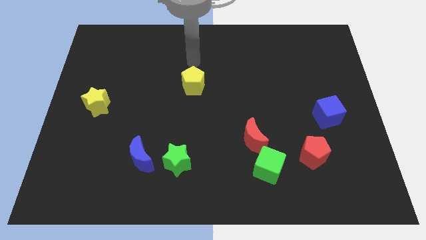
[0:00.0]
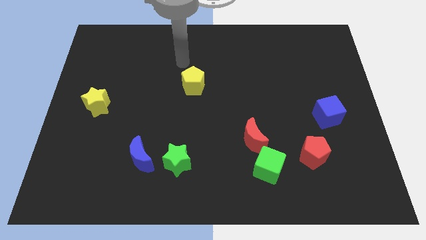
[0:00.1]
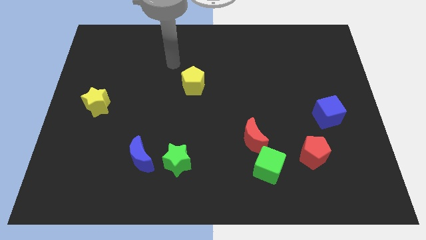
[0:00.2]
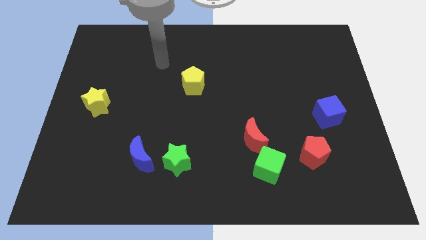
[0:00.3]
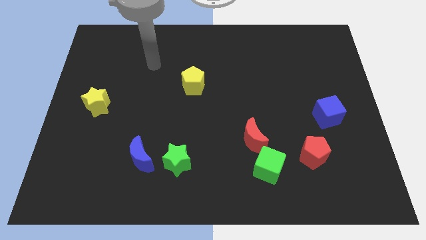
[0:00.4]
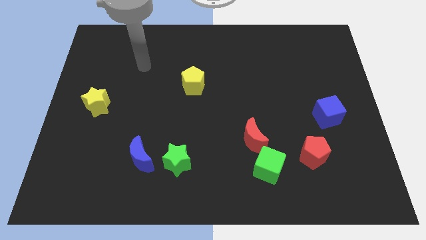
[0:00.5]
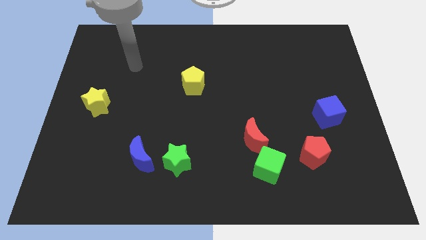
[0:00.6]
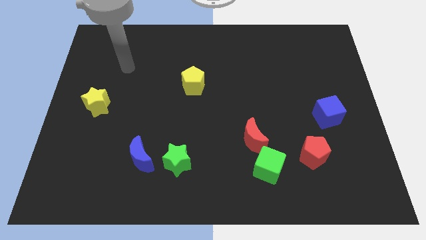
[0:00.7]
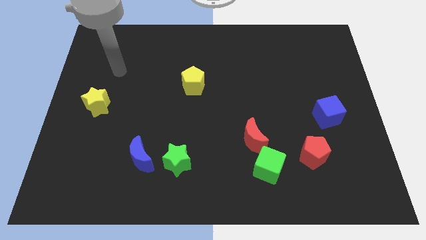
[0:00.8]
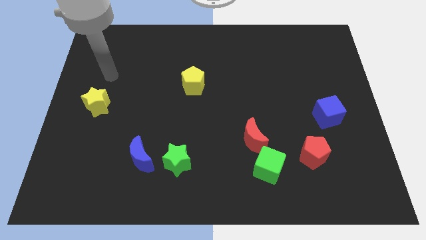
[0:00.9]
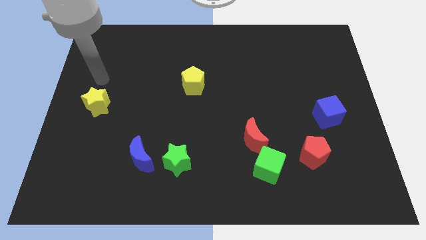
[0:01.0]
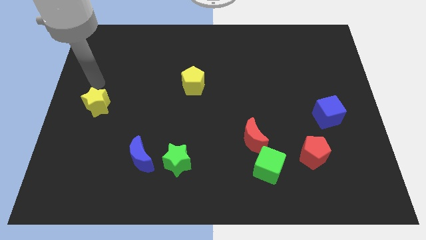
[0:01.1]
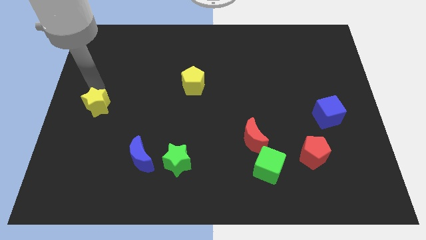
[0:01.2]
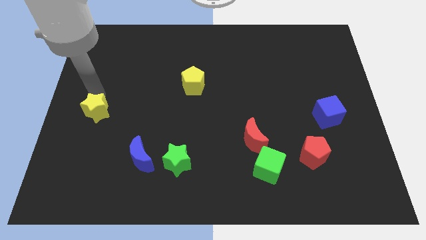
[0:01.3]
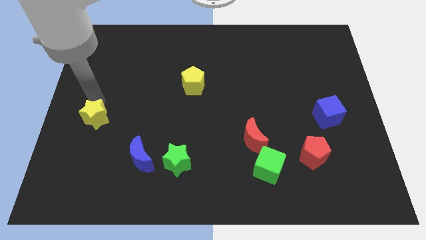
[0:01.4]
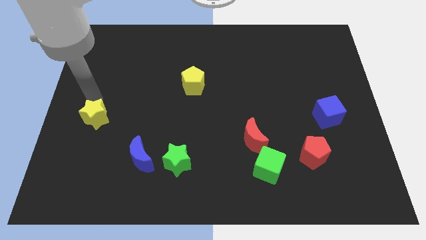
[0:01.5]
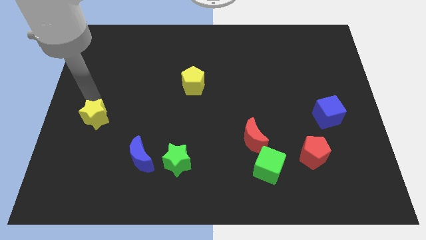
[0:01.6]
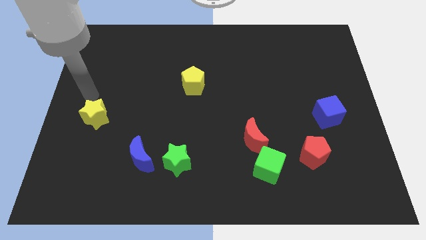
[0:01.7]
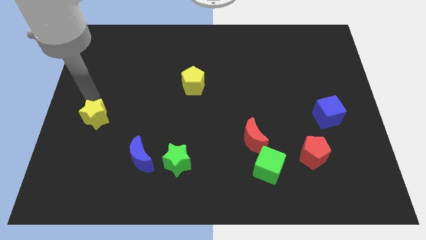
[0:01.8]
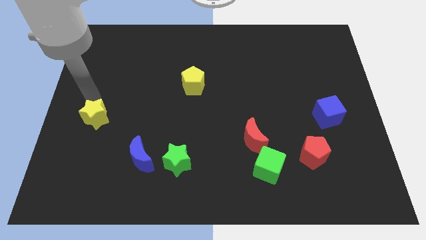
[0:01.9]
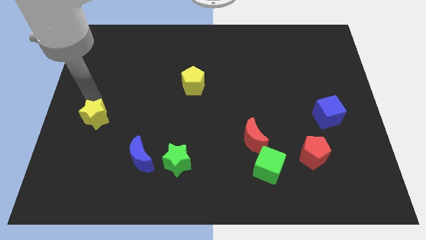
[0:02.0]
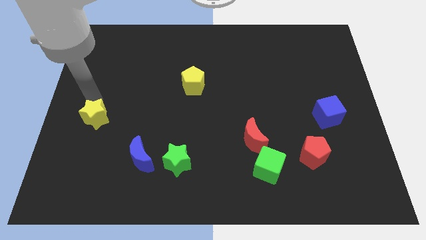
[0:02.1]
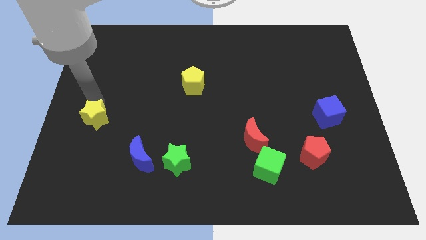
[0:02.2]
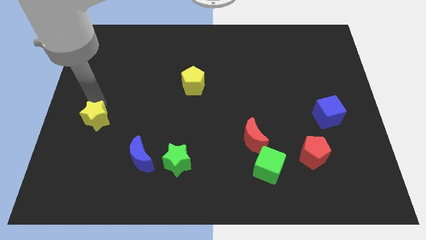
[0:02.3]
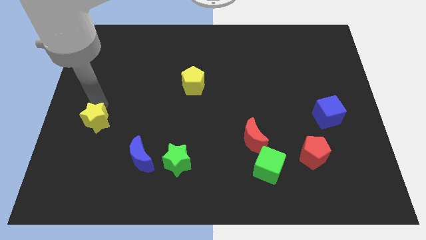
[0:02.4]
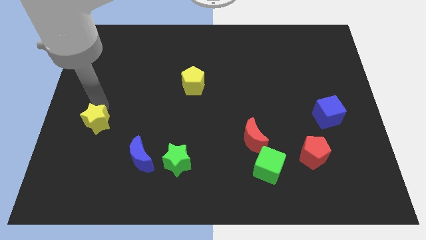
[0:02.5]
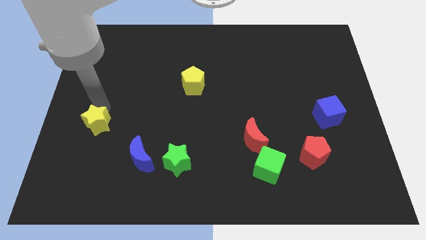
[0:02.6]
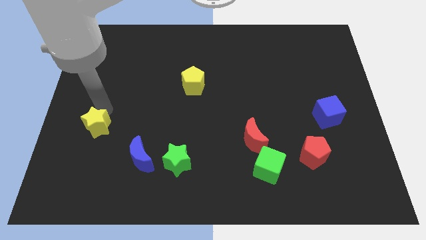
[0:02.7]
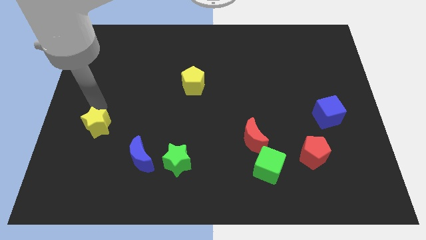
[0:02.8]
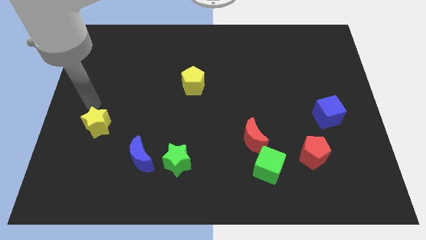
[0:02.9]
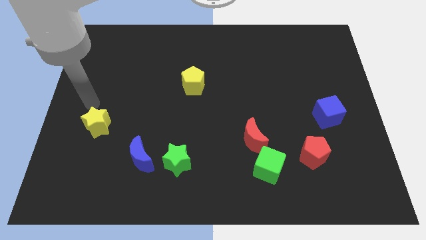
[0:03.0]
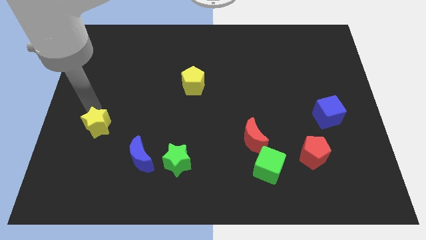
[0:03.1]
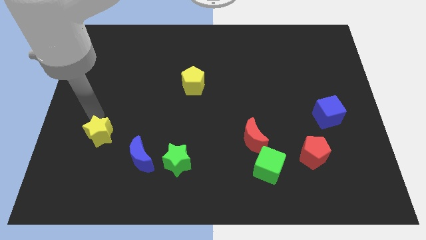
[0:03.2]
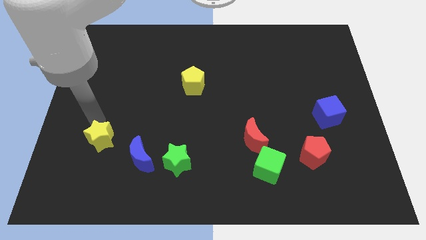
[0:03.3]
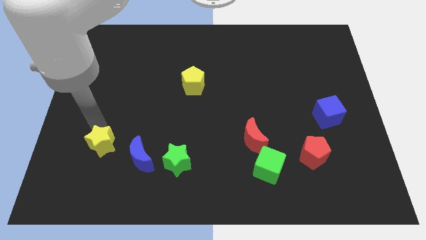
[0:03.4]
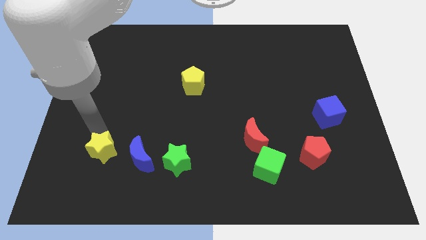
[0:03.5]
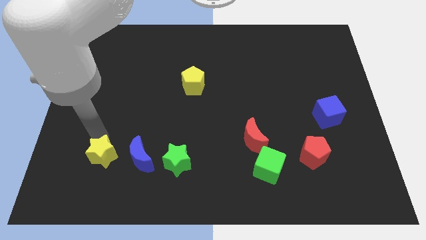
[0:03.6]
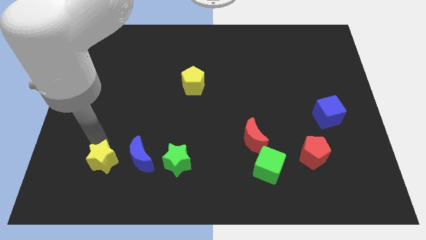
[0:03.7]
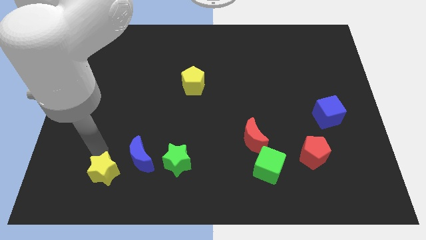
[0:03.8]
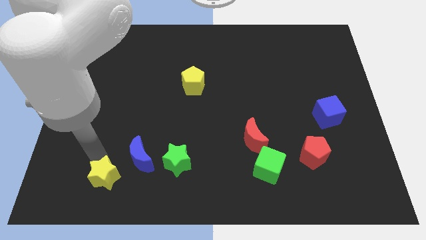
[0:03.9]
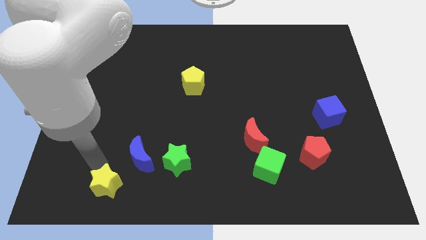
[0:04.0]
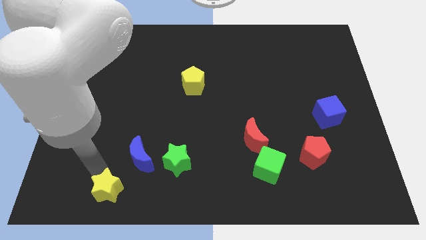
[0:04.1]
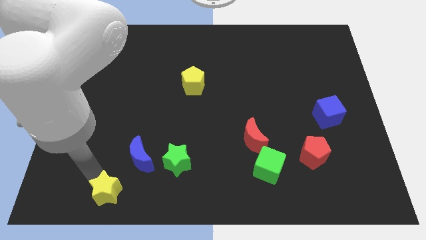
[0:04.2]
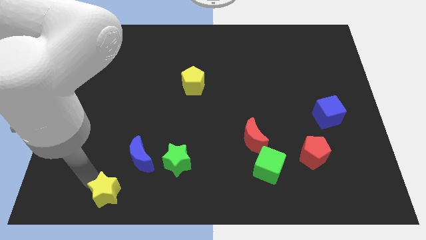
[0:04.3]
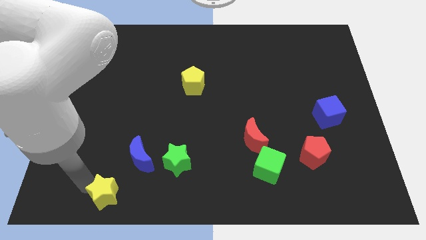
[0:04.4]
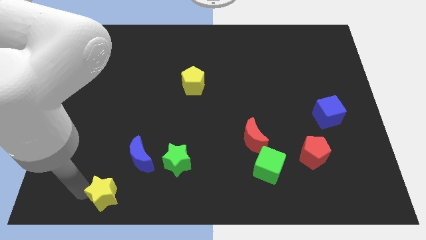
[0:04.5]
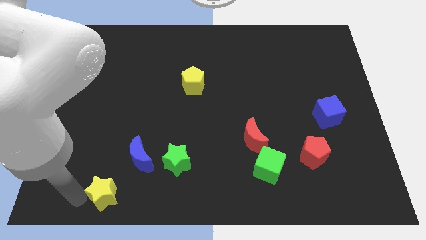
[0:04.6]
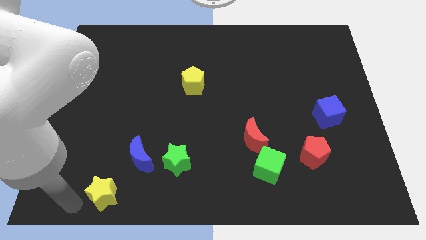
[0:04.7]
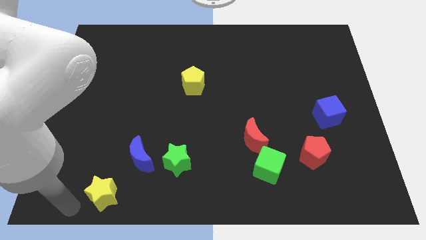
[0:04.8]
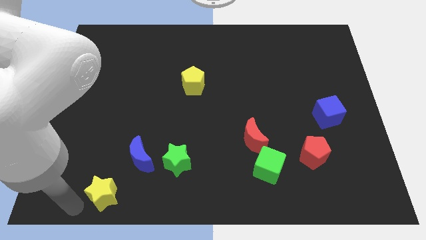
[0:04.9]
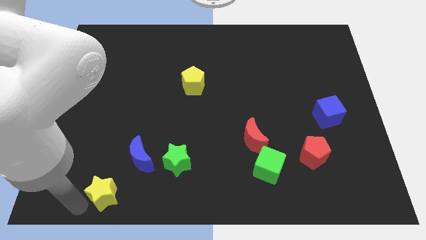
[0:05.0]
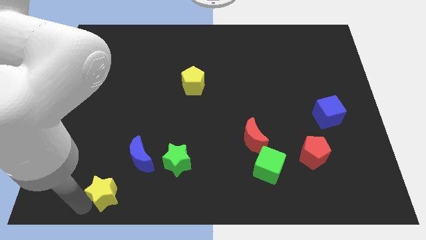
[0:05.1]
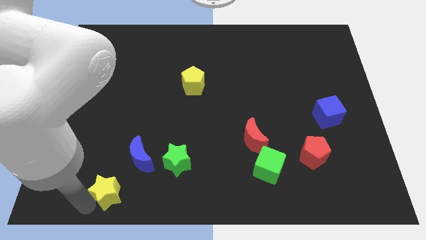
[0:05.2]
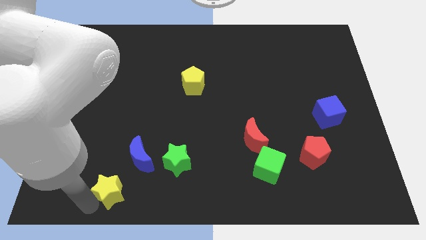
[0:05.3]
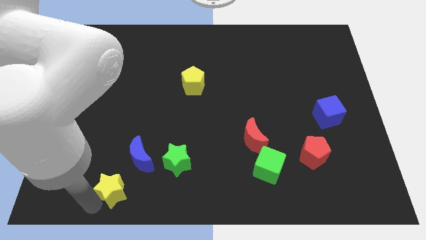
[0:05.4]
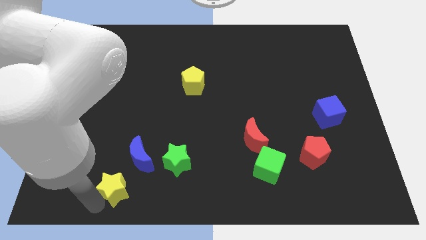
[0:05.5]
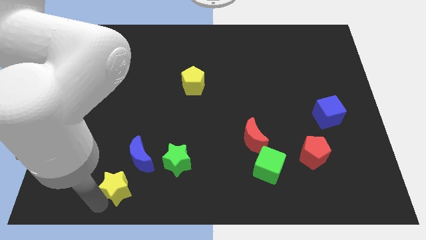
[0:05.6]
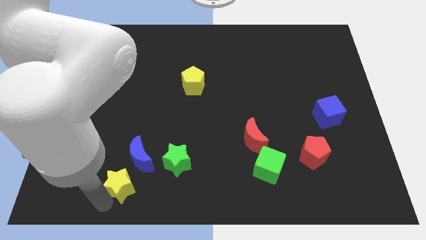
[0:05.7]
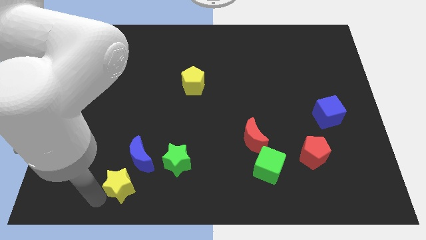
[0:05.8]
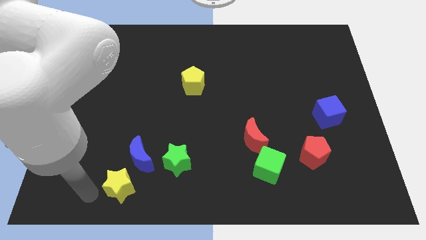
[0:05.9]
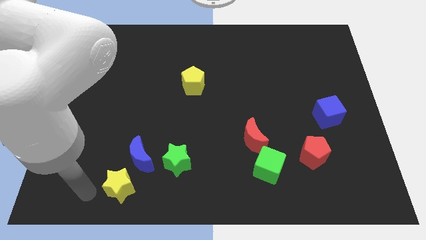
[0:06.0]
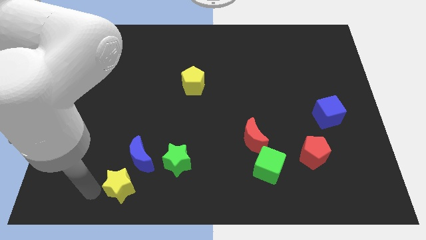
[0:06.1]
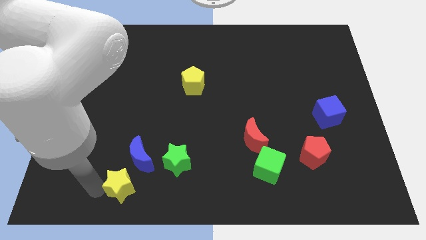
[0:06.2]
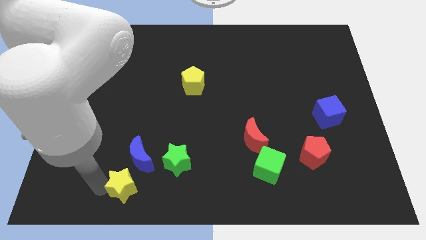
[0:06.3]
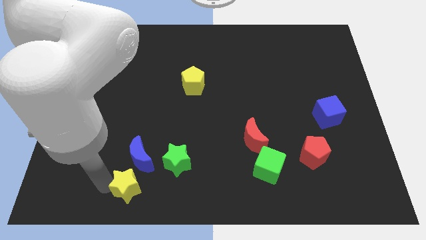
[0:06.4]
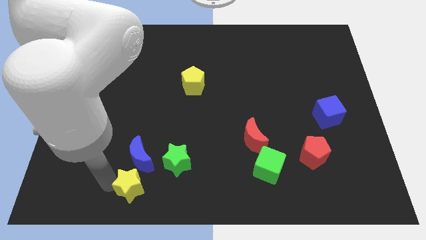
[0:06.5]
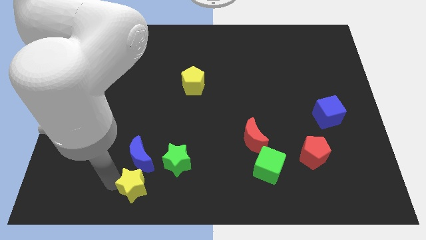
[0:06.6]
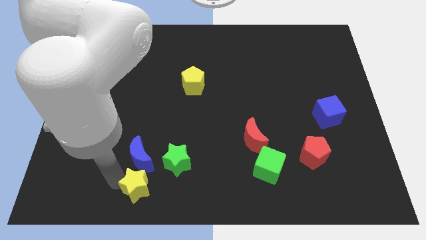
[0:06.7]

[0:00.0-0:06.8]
slide the yellow star to the bottom right of the blue moon

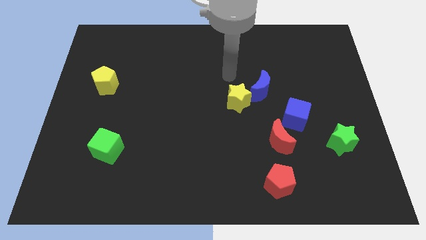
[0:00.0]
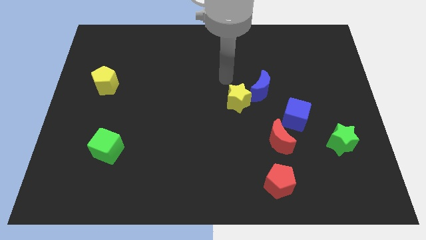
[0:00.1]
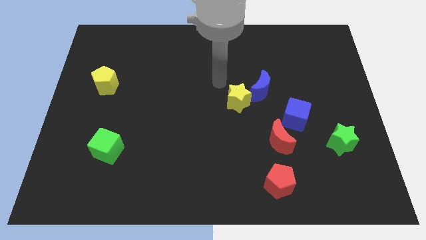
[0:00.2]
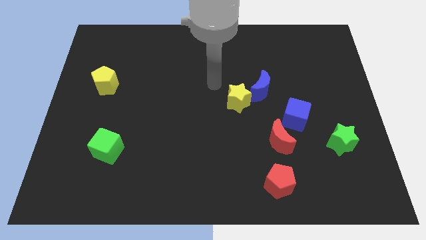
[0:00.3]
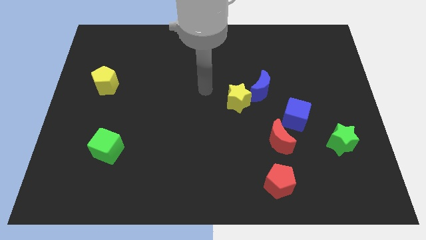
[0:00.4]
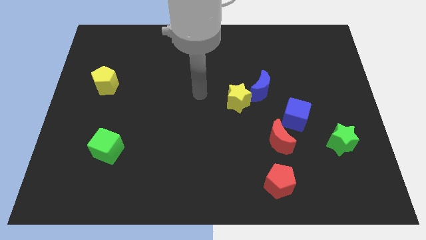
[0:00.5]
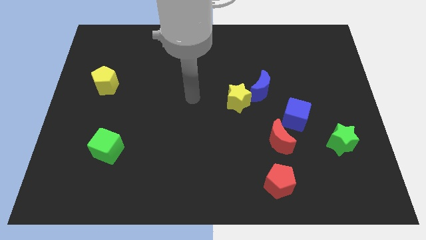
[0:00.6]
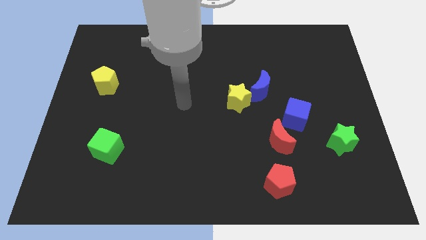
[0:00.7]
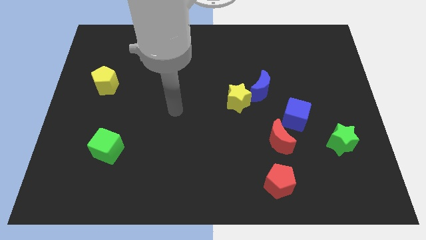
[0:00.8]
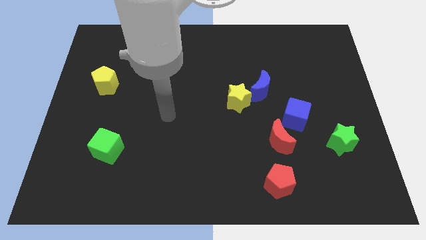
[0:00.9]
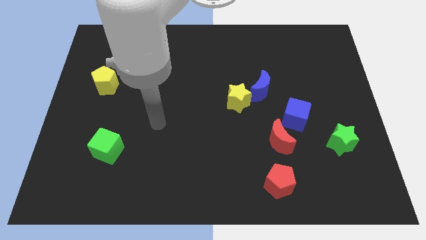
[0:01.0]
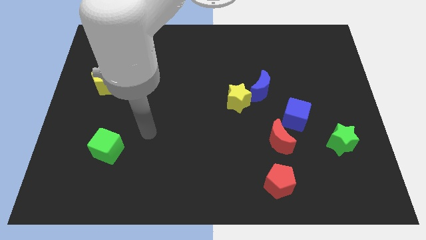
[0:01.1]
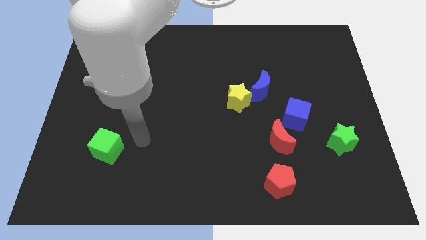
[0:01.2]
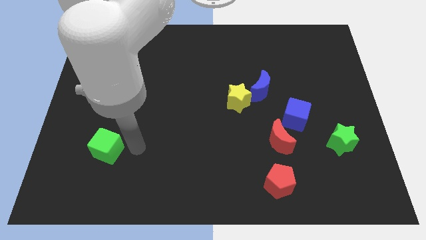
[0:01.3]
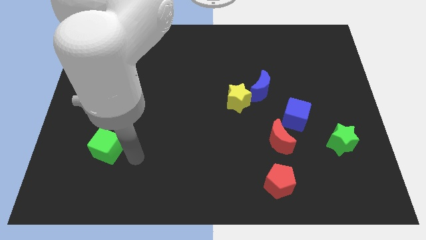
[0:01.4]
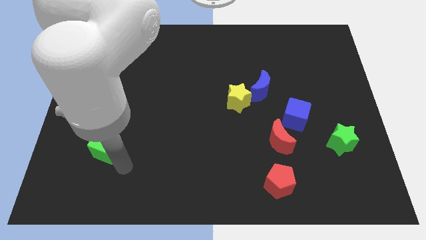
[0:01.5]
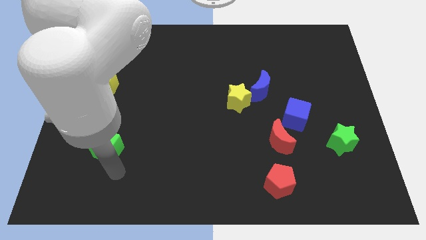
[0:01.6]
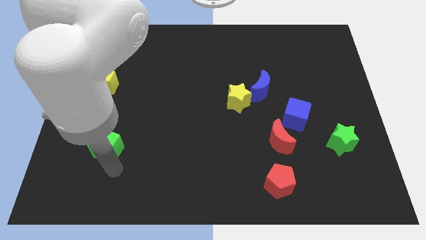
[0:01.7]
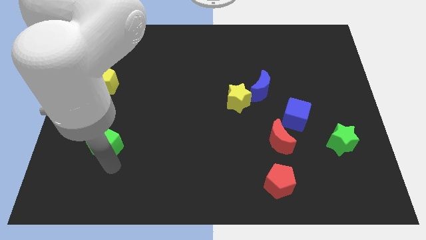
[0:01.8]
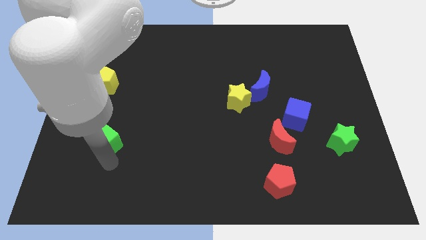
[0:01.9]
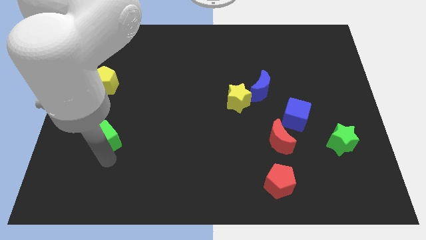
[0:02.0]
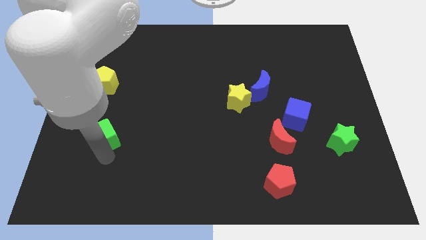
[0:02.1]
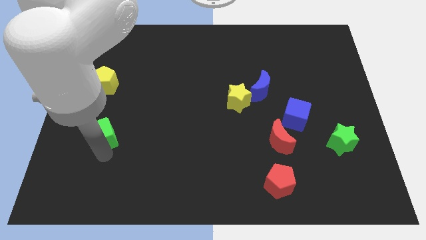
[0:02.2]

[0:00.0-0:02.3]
put the green cube to the bottom side of the yellow pentagon
